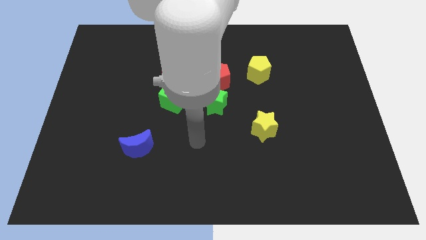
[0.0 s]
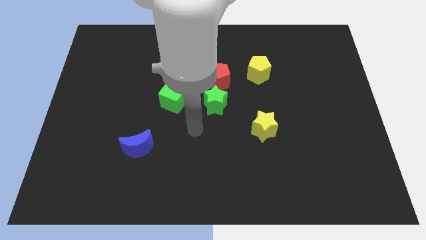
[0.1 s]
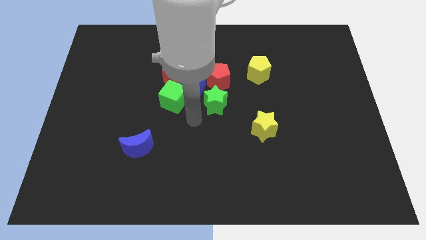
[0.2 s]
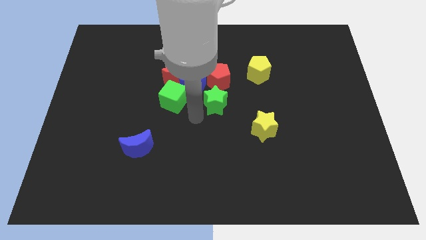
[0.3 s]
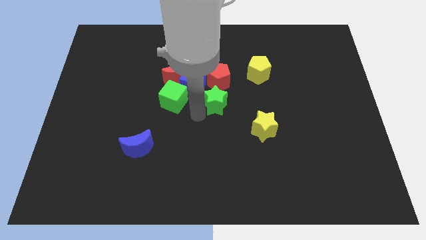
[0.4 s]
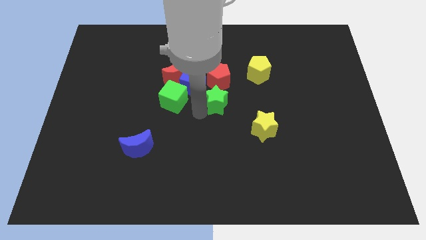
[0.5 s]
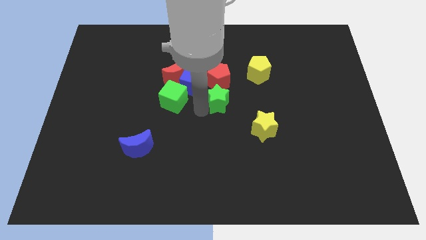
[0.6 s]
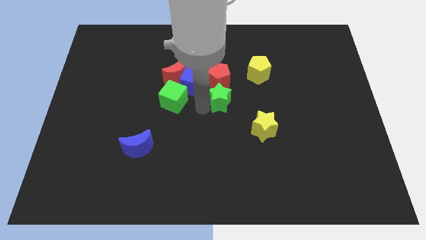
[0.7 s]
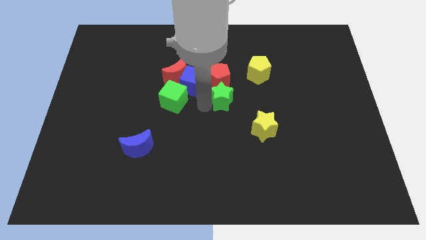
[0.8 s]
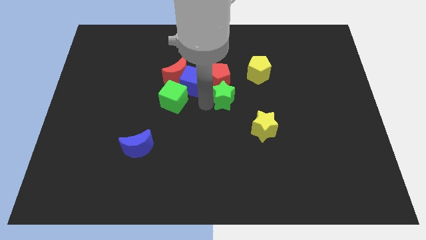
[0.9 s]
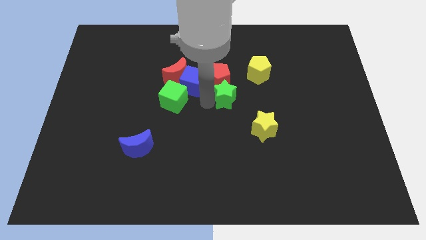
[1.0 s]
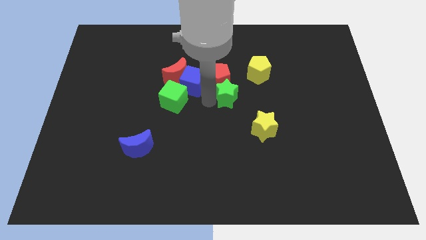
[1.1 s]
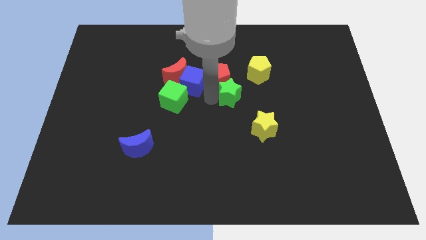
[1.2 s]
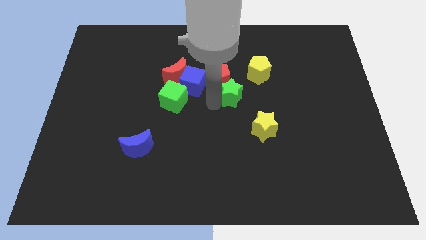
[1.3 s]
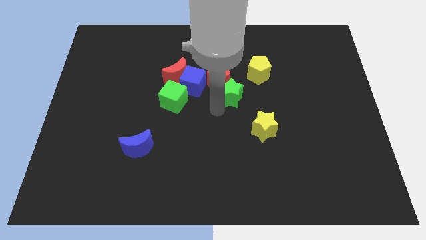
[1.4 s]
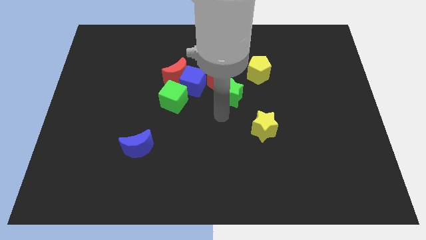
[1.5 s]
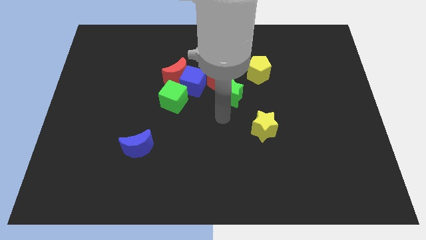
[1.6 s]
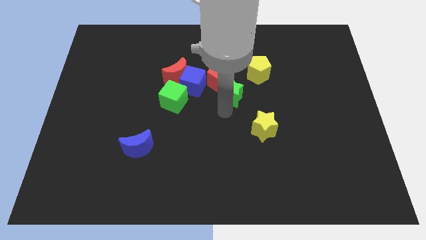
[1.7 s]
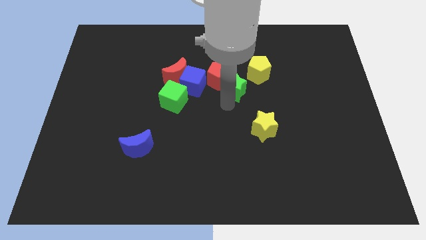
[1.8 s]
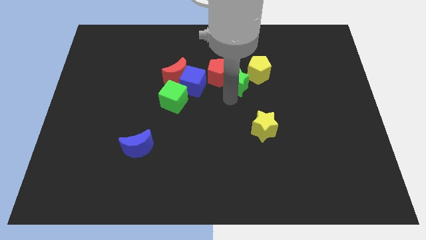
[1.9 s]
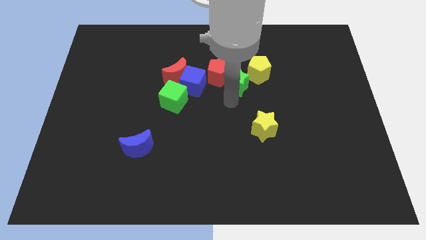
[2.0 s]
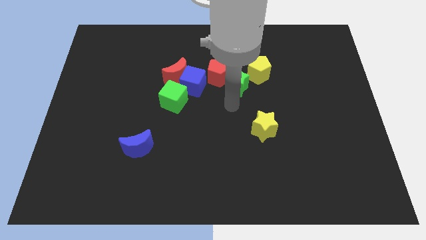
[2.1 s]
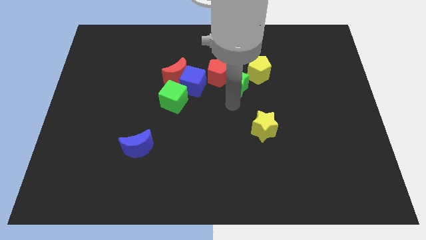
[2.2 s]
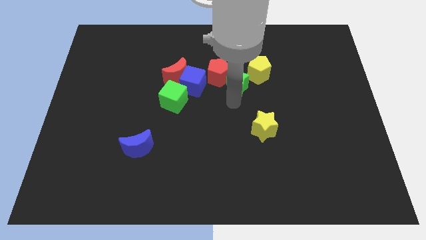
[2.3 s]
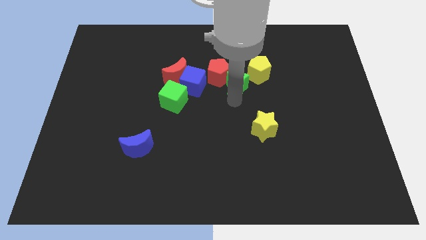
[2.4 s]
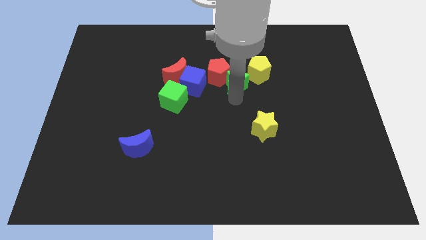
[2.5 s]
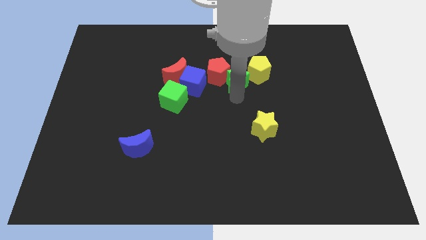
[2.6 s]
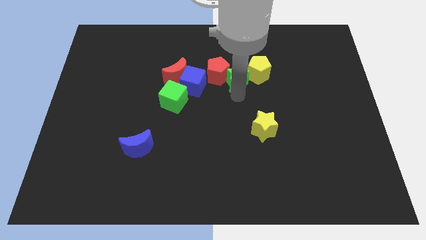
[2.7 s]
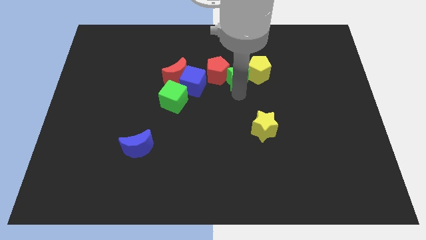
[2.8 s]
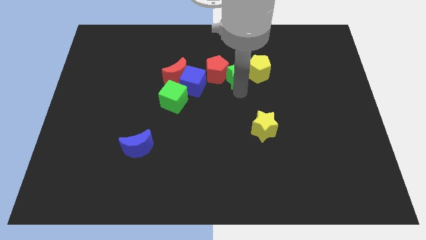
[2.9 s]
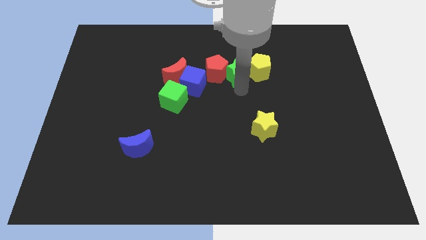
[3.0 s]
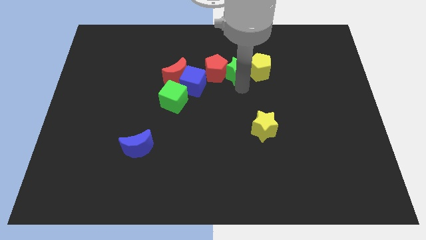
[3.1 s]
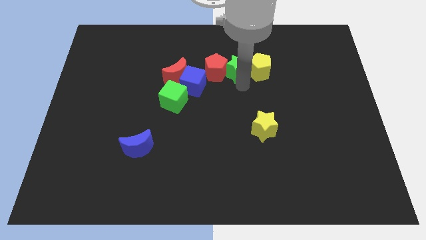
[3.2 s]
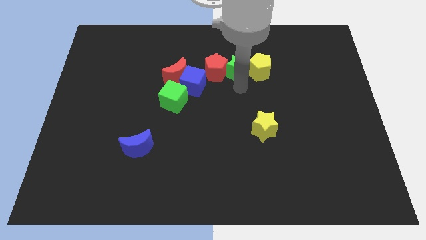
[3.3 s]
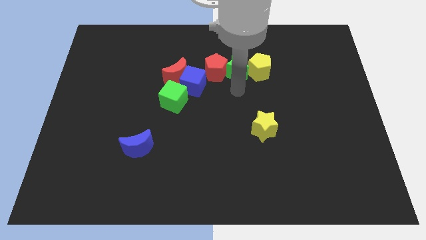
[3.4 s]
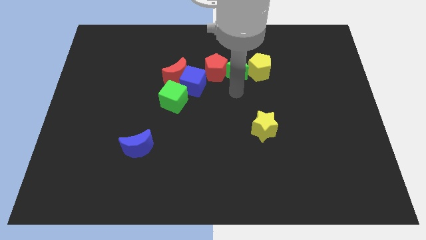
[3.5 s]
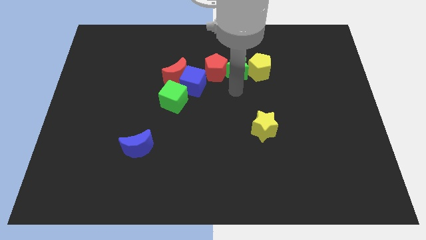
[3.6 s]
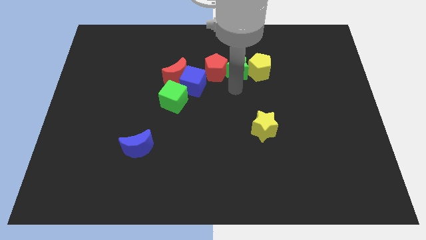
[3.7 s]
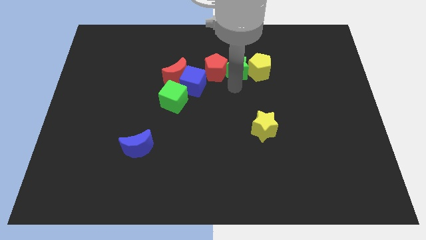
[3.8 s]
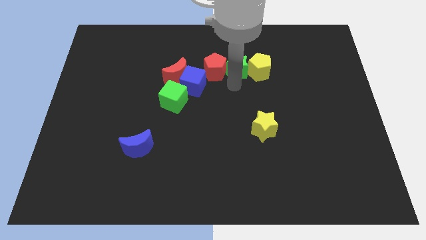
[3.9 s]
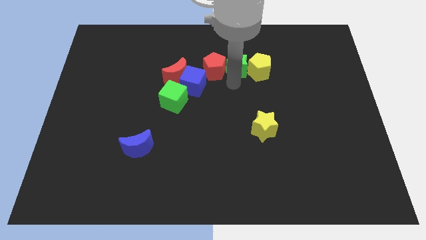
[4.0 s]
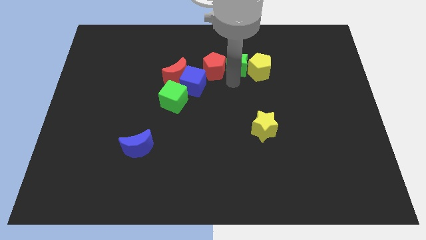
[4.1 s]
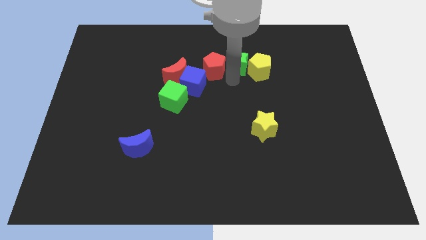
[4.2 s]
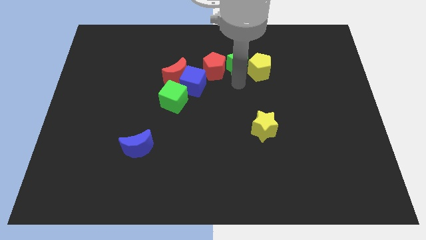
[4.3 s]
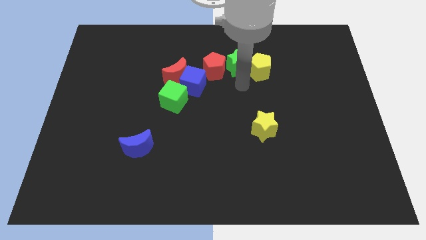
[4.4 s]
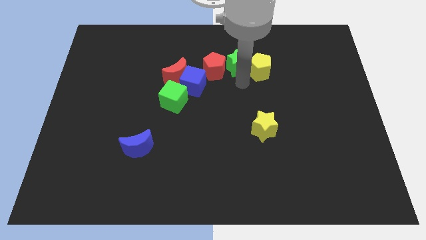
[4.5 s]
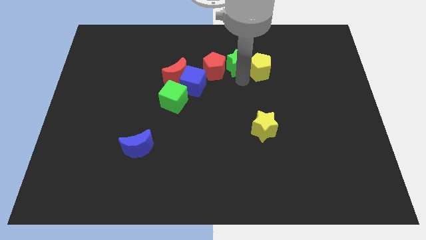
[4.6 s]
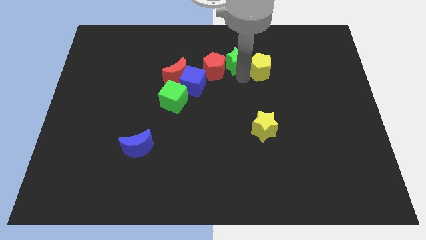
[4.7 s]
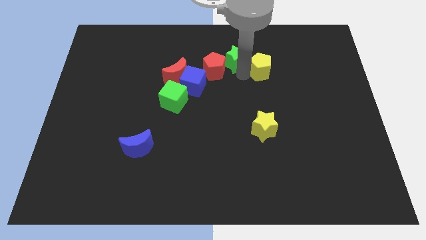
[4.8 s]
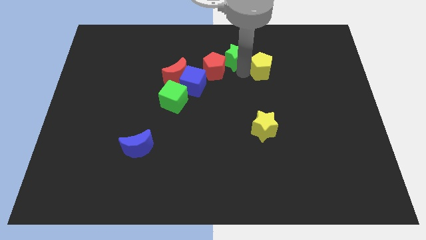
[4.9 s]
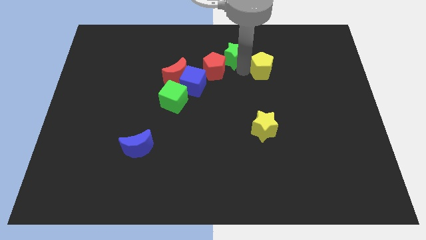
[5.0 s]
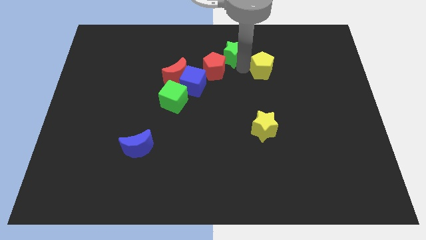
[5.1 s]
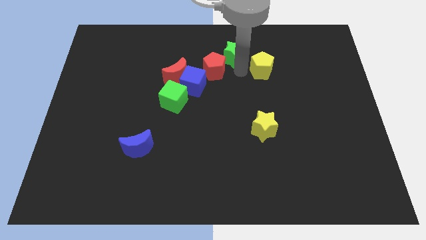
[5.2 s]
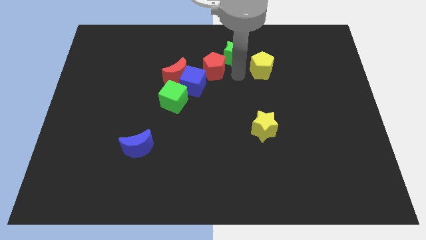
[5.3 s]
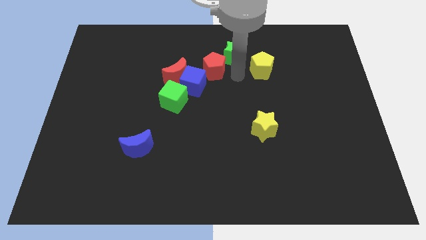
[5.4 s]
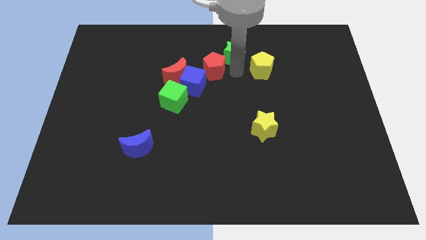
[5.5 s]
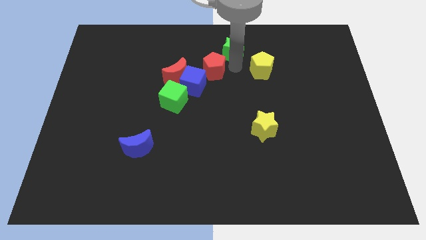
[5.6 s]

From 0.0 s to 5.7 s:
put the green star to the top

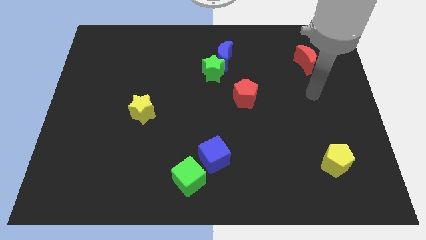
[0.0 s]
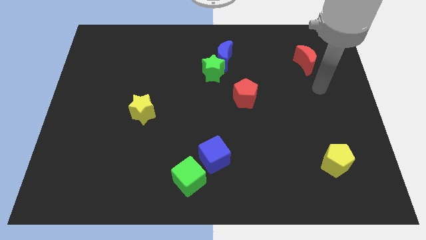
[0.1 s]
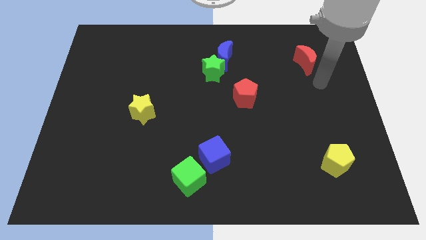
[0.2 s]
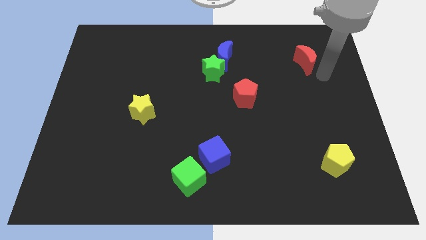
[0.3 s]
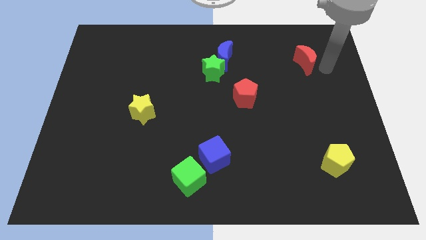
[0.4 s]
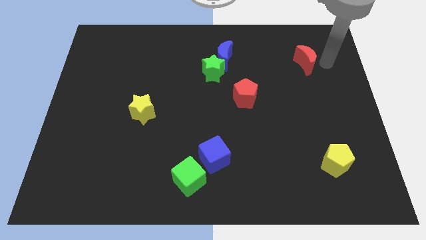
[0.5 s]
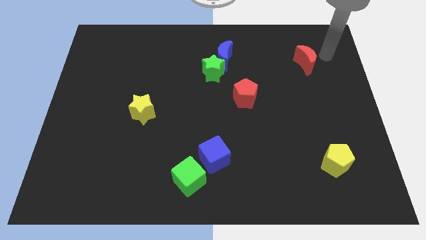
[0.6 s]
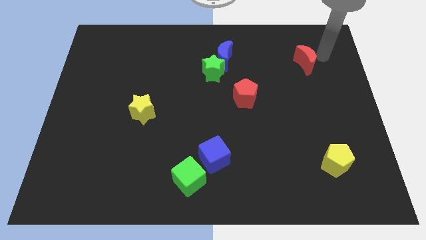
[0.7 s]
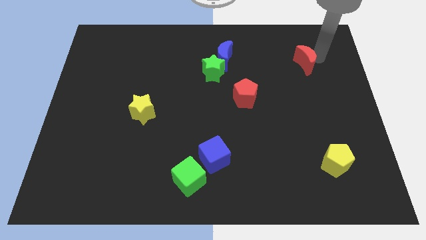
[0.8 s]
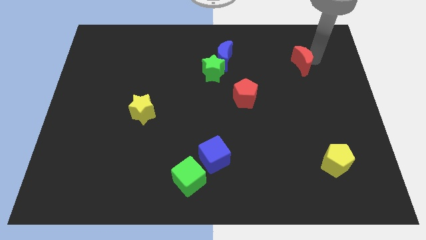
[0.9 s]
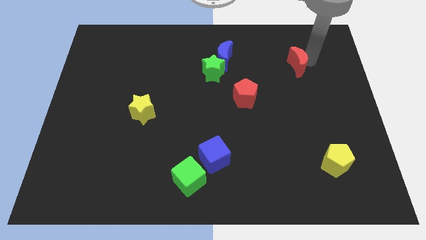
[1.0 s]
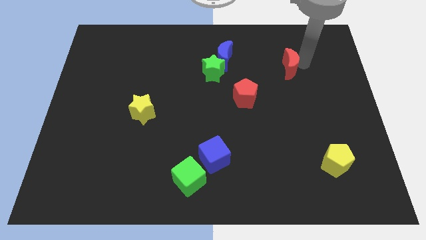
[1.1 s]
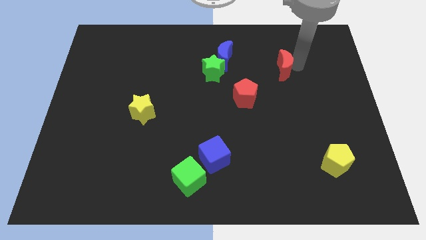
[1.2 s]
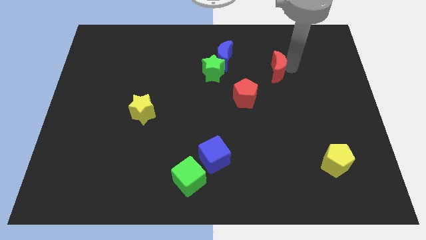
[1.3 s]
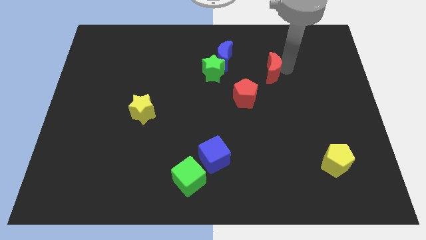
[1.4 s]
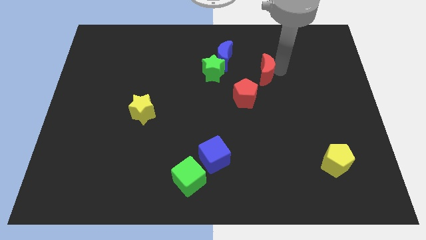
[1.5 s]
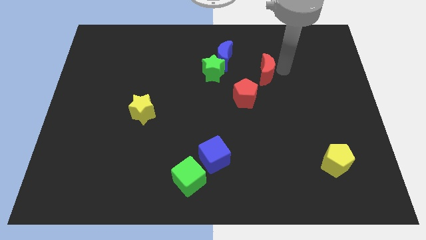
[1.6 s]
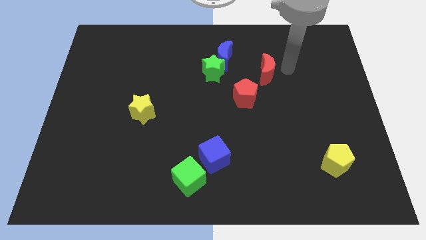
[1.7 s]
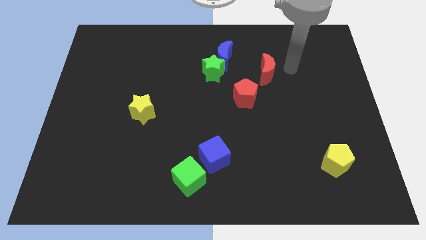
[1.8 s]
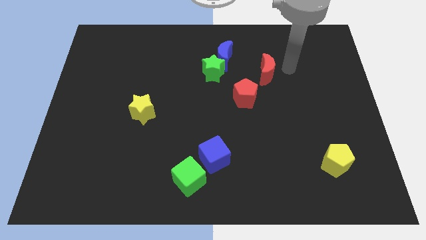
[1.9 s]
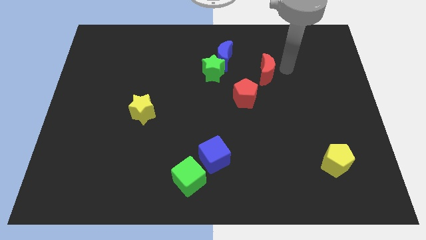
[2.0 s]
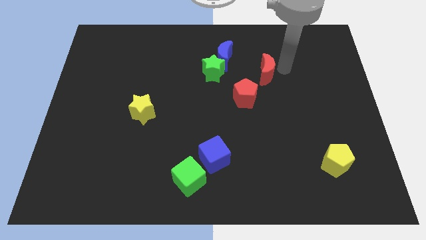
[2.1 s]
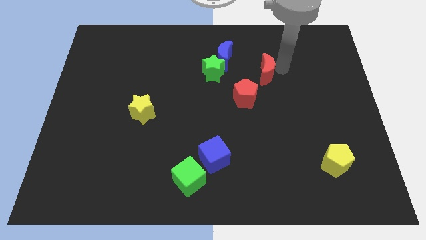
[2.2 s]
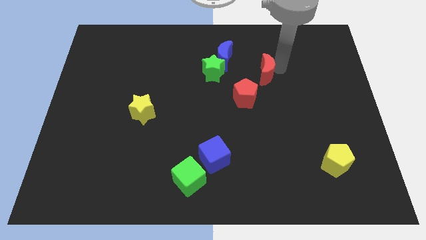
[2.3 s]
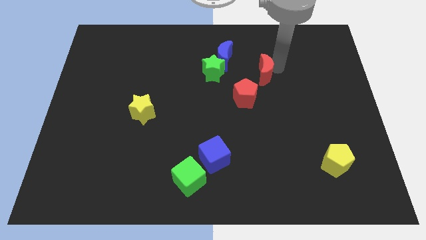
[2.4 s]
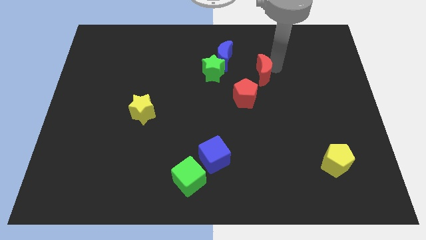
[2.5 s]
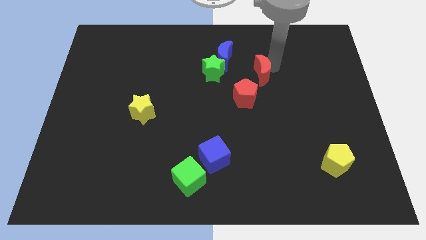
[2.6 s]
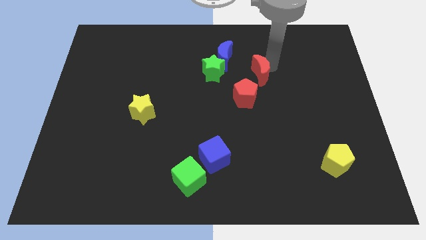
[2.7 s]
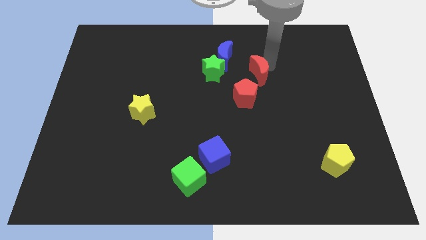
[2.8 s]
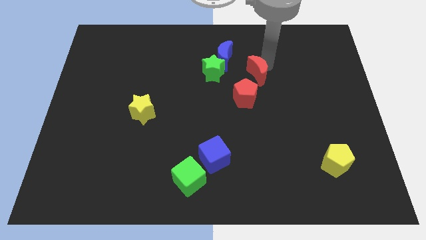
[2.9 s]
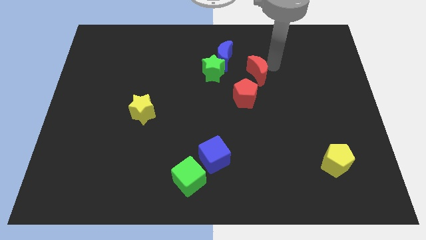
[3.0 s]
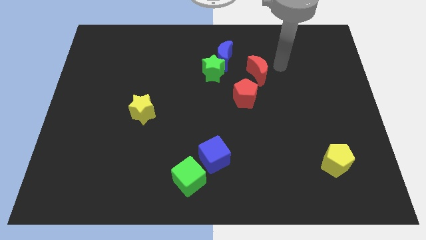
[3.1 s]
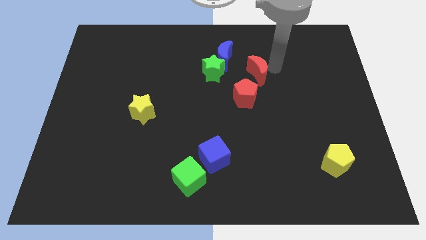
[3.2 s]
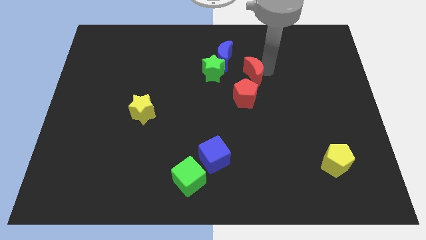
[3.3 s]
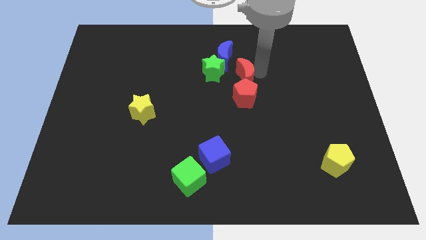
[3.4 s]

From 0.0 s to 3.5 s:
put the red moon to the middle
